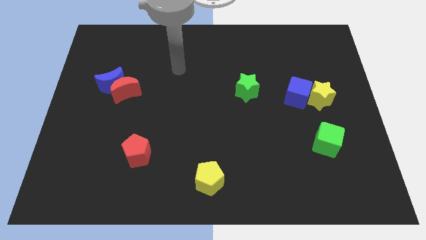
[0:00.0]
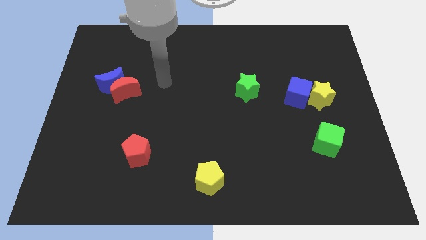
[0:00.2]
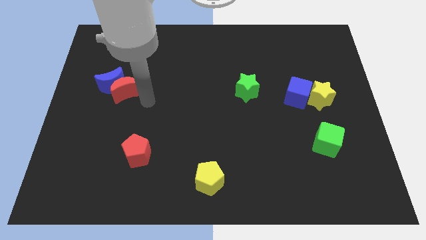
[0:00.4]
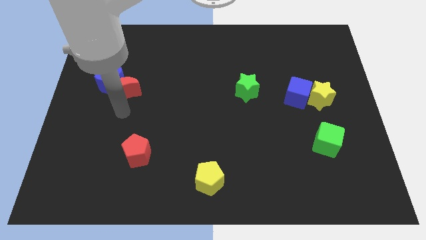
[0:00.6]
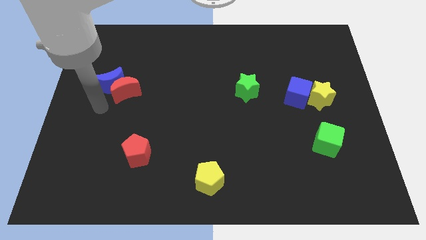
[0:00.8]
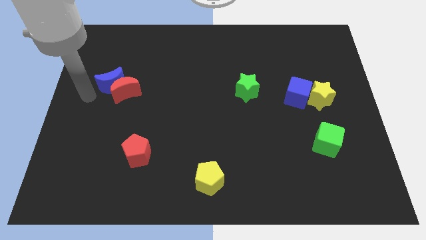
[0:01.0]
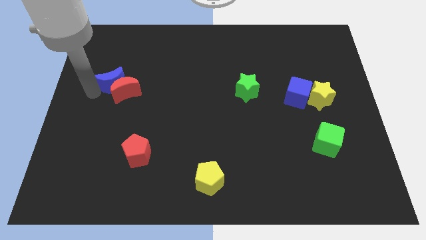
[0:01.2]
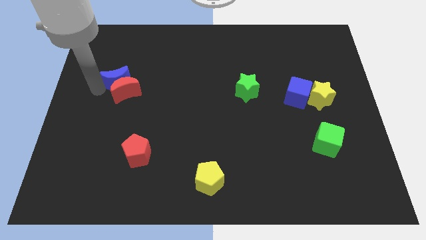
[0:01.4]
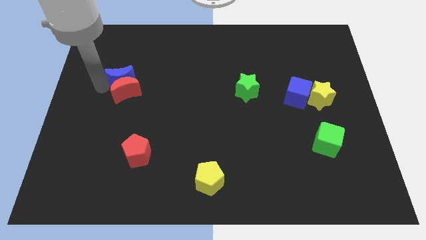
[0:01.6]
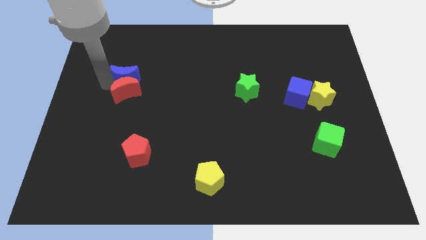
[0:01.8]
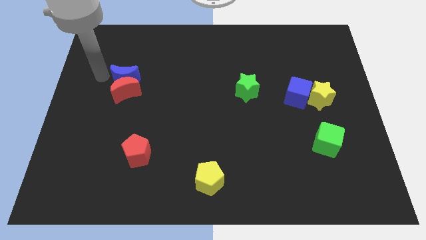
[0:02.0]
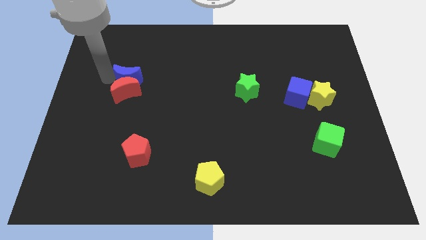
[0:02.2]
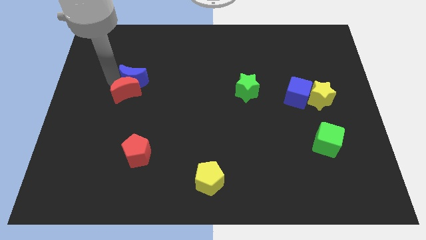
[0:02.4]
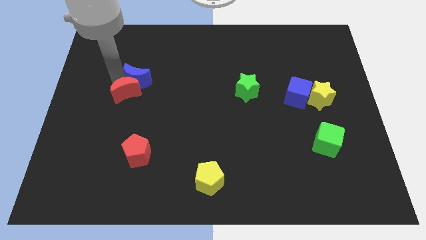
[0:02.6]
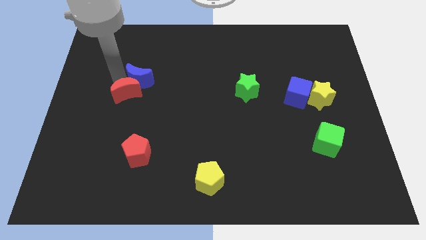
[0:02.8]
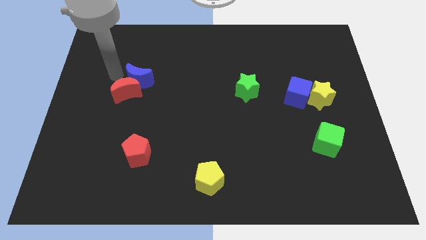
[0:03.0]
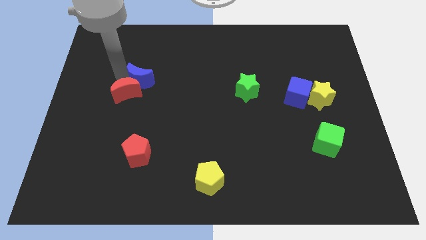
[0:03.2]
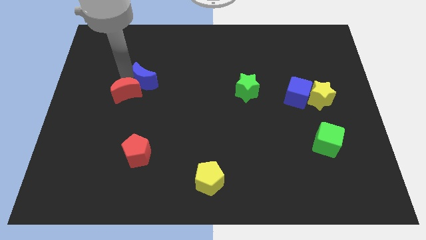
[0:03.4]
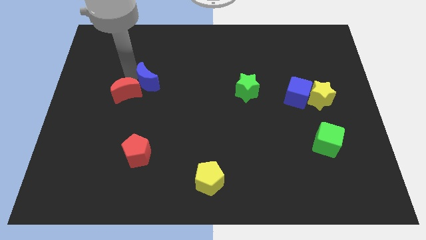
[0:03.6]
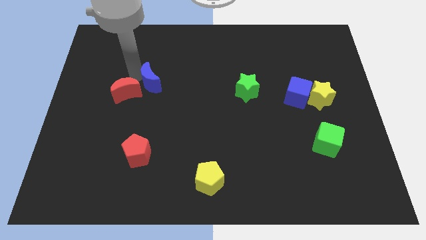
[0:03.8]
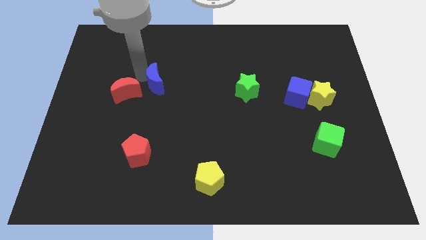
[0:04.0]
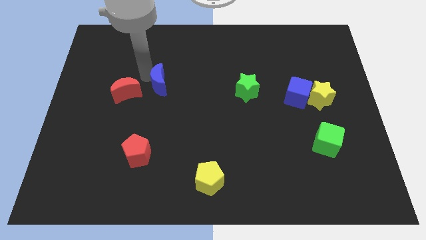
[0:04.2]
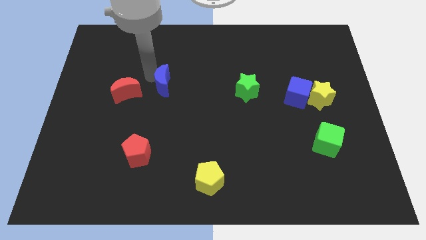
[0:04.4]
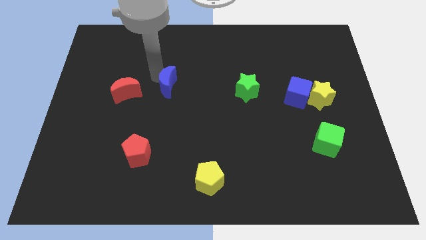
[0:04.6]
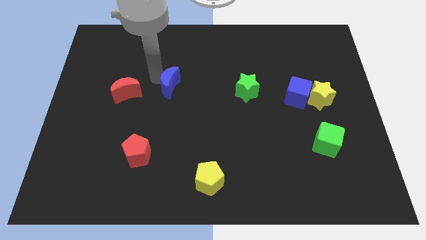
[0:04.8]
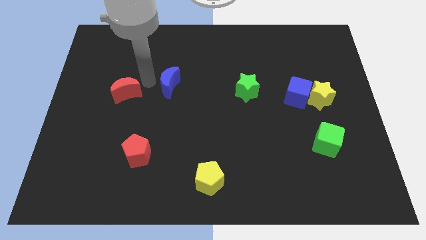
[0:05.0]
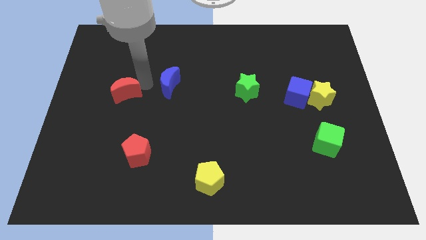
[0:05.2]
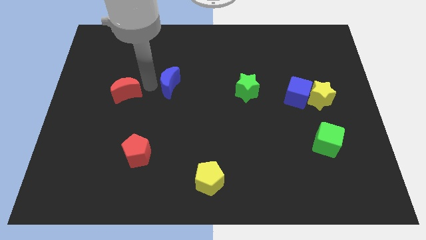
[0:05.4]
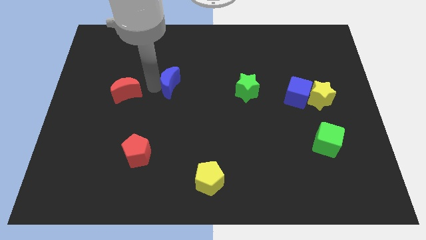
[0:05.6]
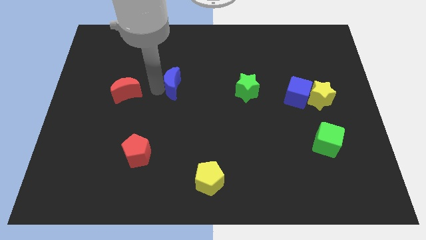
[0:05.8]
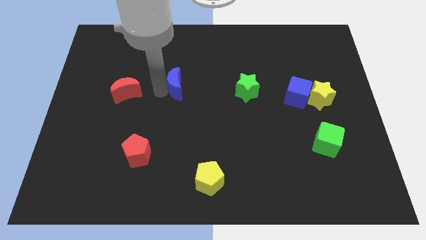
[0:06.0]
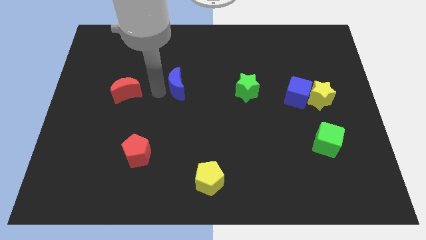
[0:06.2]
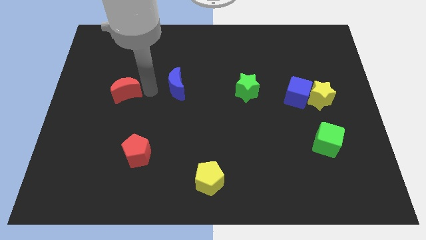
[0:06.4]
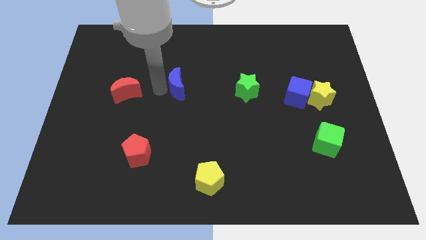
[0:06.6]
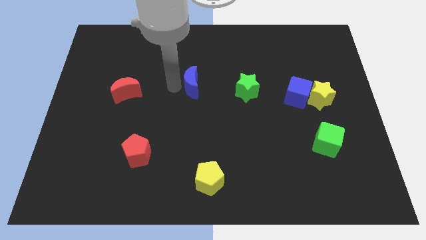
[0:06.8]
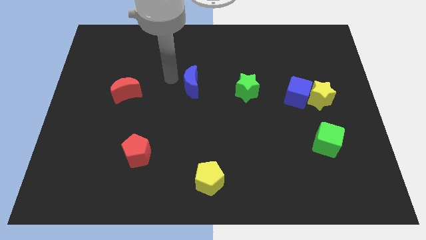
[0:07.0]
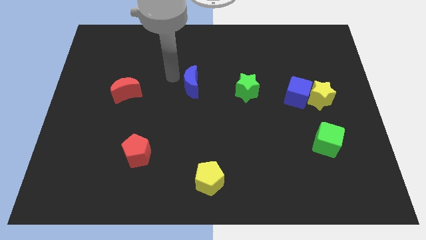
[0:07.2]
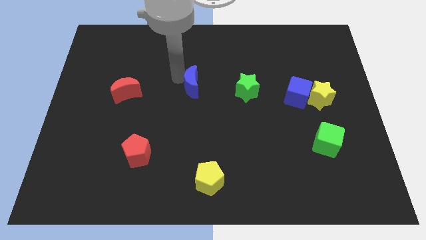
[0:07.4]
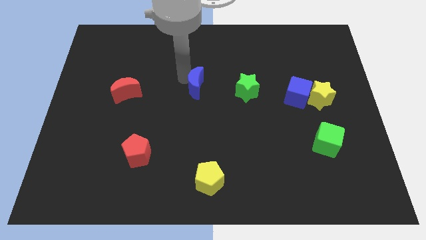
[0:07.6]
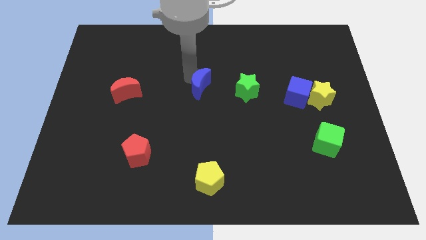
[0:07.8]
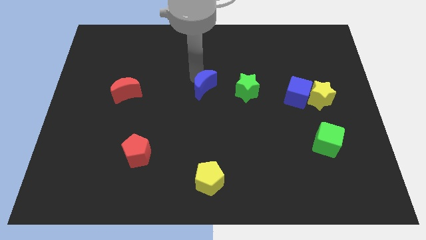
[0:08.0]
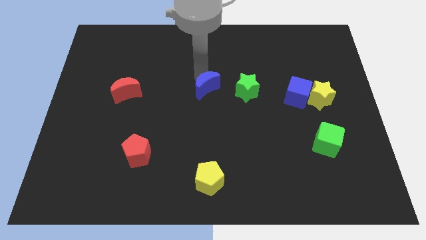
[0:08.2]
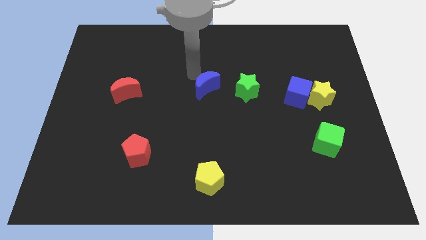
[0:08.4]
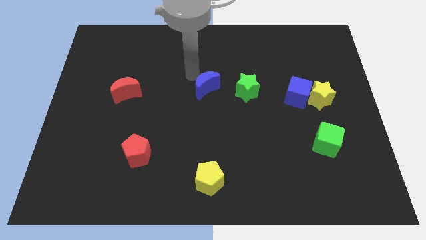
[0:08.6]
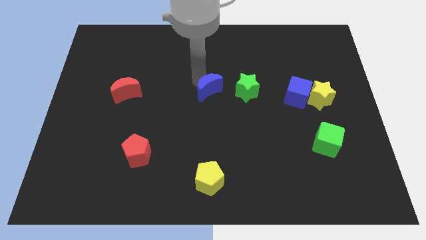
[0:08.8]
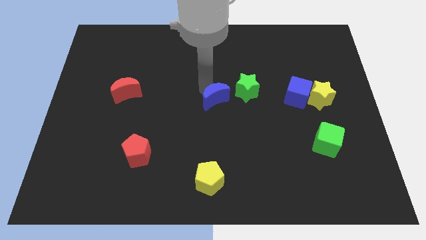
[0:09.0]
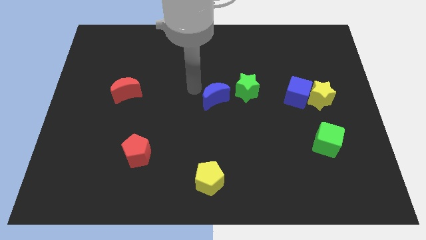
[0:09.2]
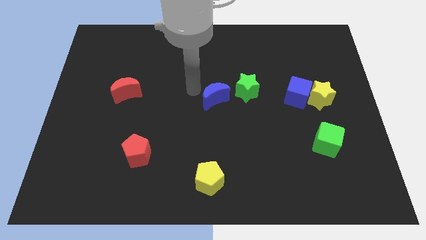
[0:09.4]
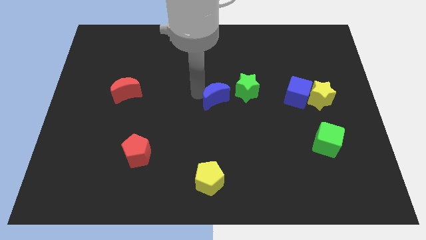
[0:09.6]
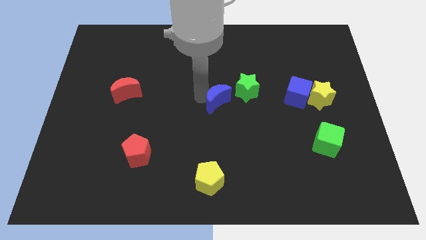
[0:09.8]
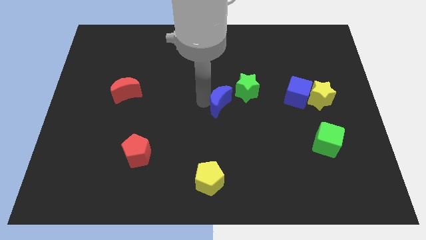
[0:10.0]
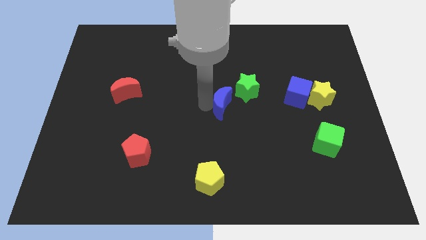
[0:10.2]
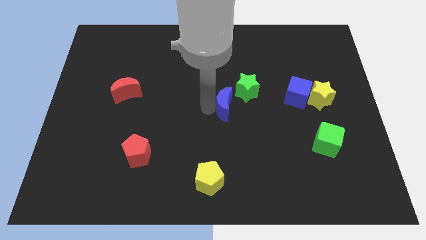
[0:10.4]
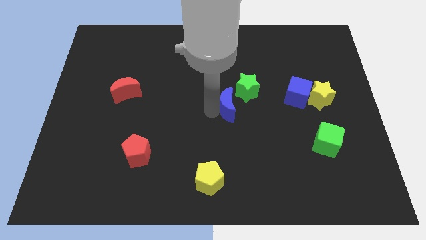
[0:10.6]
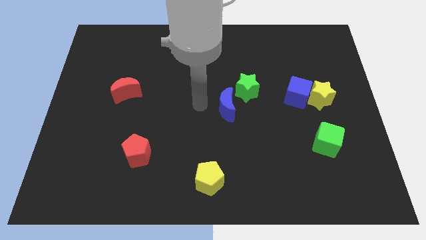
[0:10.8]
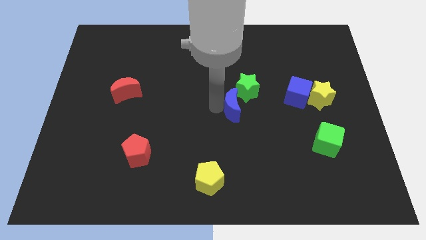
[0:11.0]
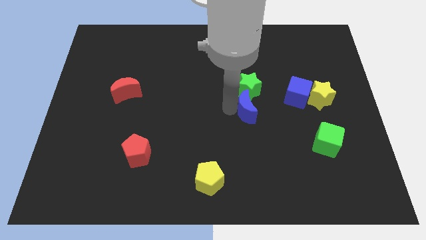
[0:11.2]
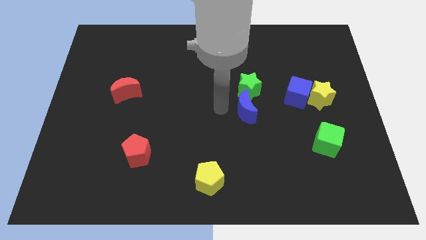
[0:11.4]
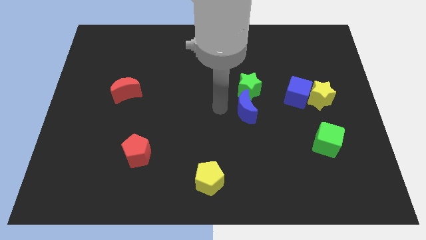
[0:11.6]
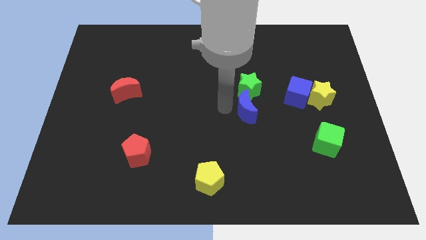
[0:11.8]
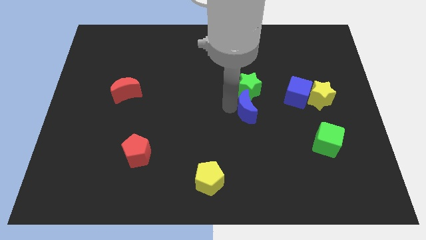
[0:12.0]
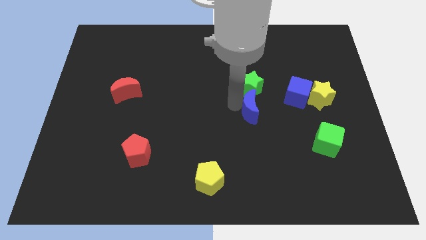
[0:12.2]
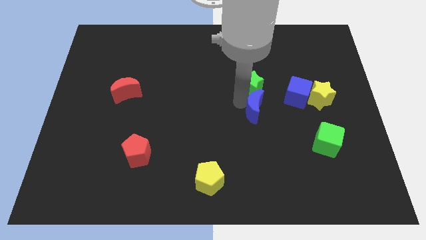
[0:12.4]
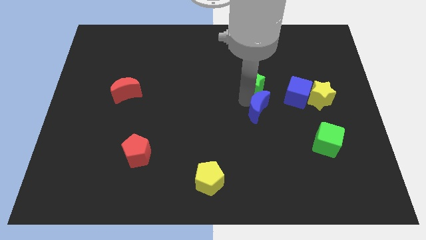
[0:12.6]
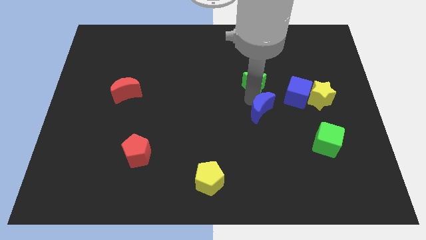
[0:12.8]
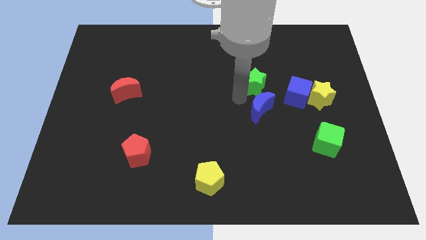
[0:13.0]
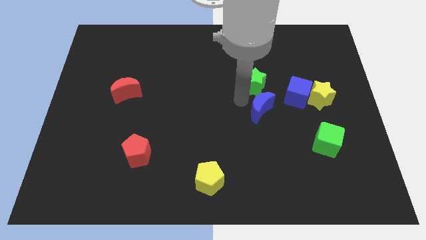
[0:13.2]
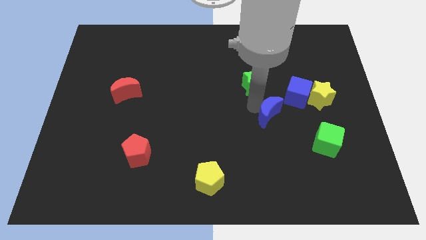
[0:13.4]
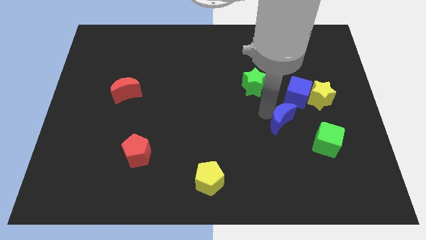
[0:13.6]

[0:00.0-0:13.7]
put the blue moon to the bottom side of the blue cube

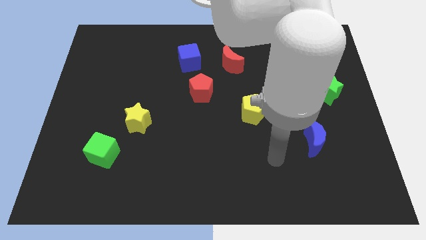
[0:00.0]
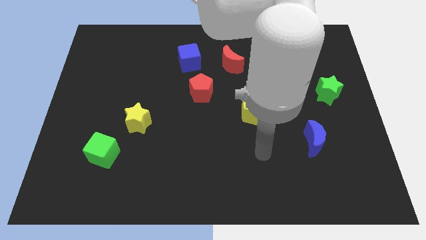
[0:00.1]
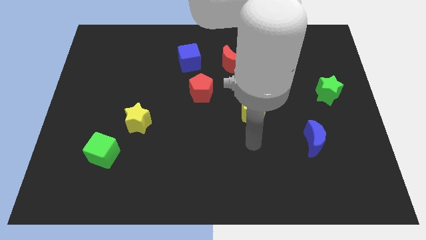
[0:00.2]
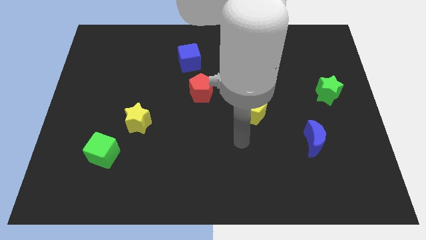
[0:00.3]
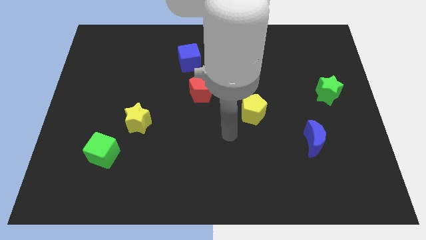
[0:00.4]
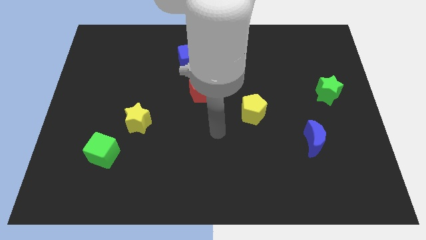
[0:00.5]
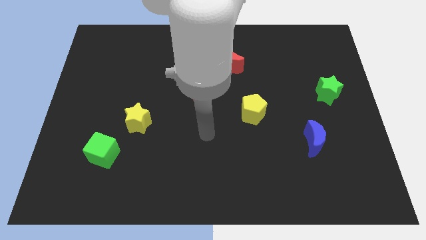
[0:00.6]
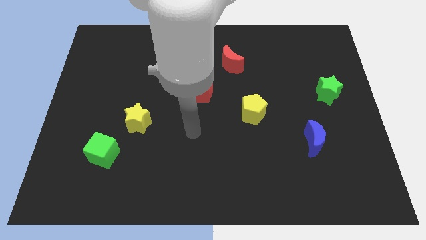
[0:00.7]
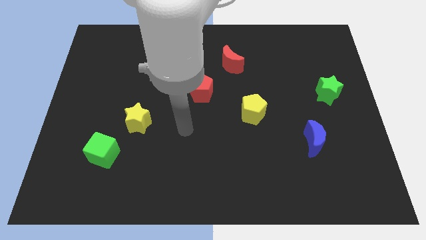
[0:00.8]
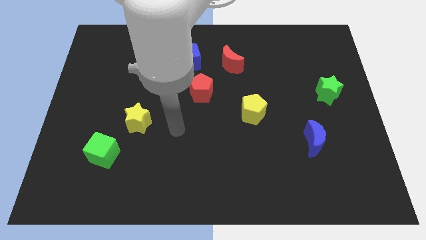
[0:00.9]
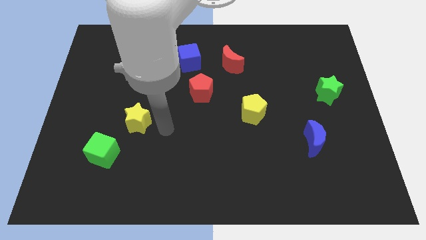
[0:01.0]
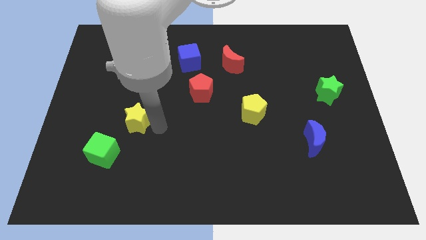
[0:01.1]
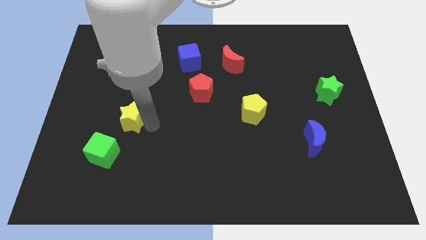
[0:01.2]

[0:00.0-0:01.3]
slide the yellow star to the top side of the green cube
